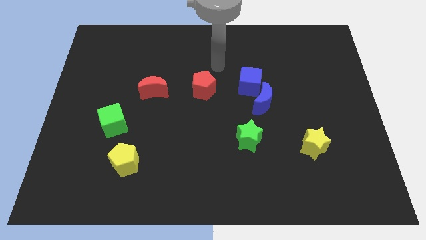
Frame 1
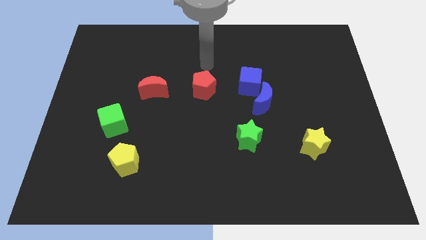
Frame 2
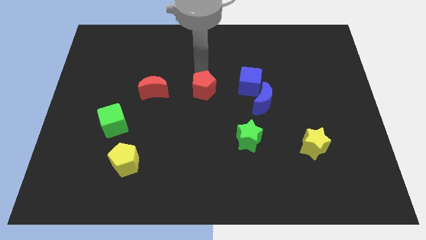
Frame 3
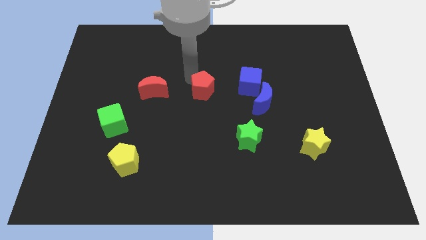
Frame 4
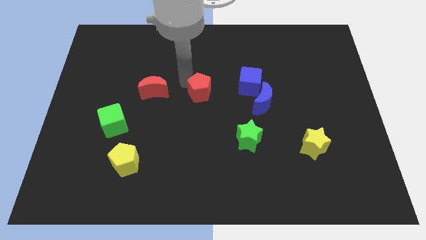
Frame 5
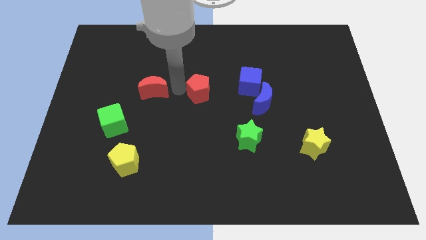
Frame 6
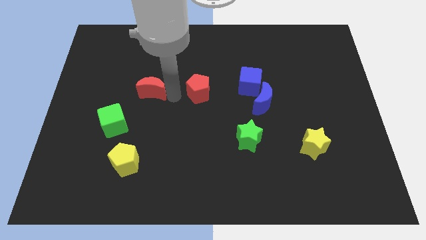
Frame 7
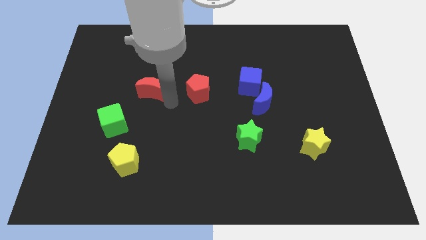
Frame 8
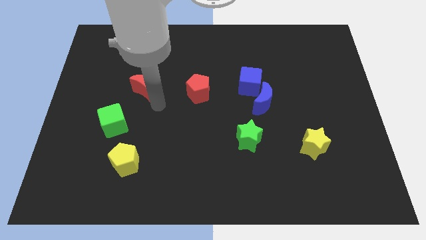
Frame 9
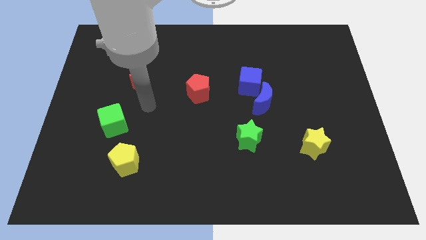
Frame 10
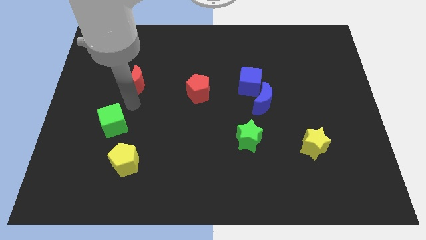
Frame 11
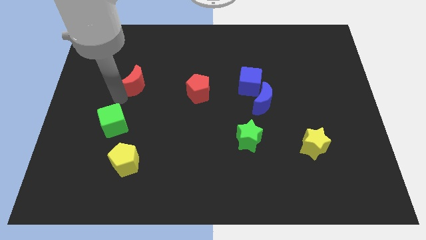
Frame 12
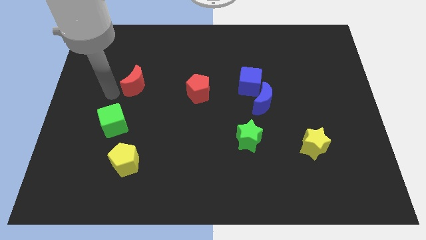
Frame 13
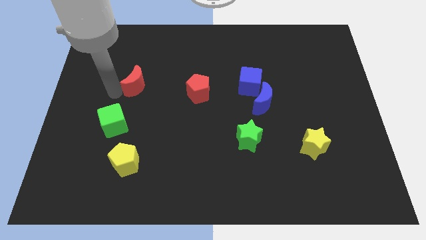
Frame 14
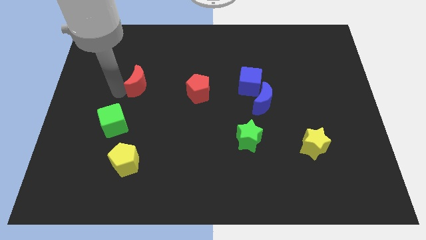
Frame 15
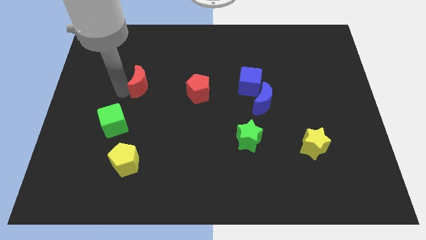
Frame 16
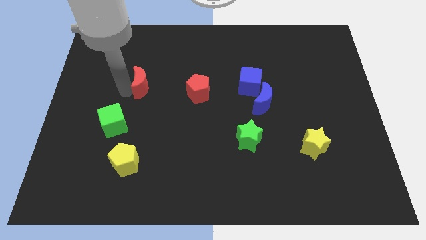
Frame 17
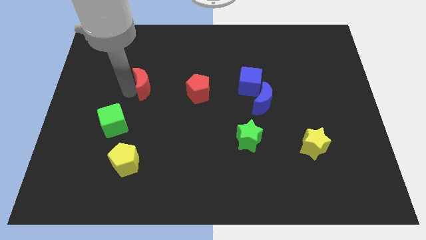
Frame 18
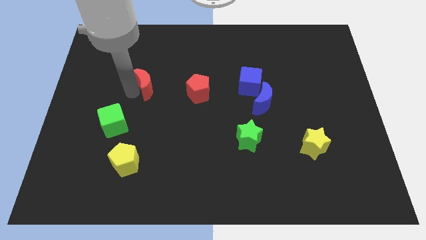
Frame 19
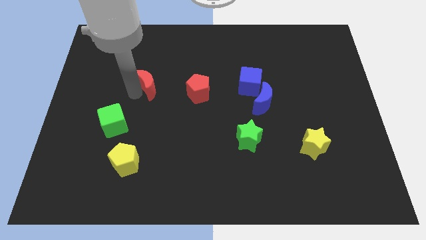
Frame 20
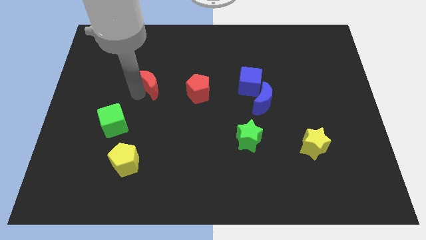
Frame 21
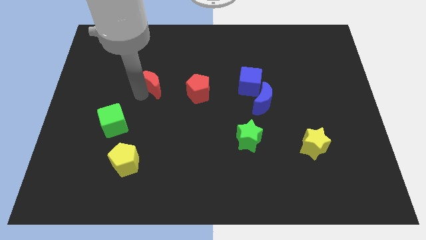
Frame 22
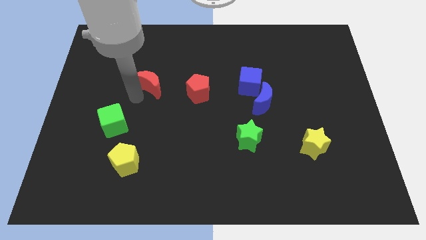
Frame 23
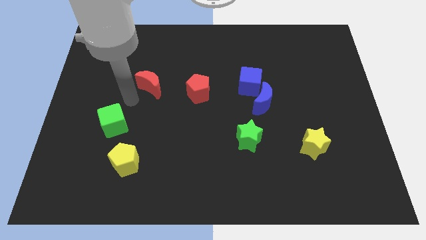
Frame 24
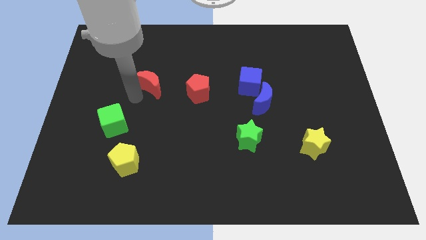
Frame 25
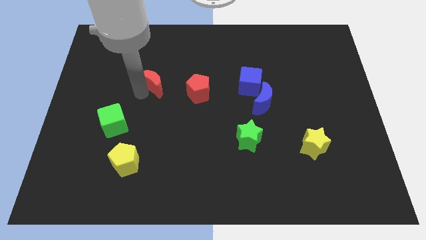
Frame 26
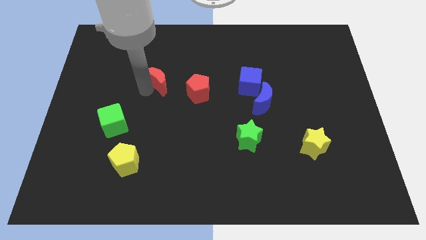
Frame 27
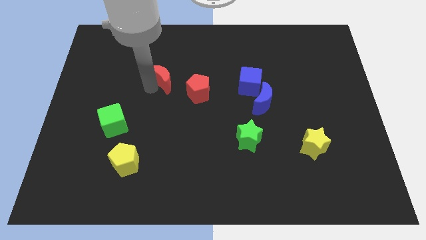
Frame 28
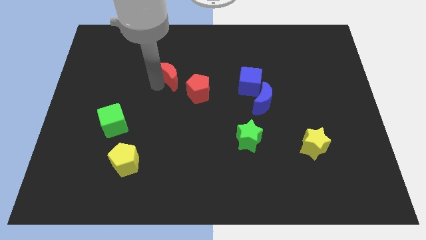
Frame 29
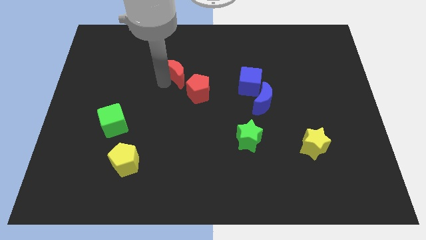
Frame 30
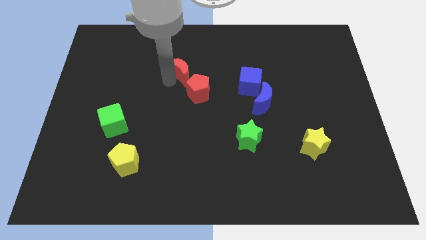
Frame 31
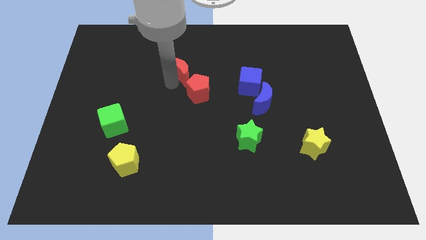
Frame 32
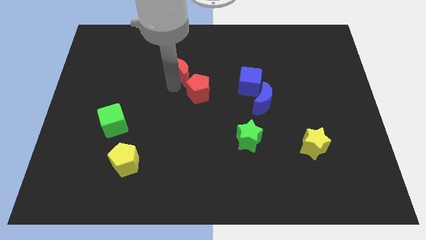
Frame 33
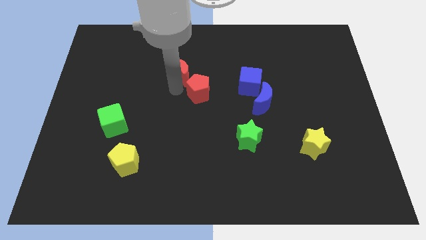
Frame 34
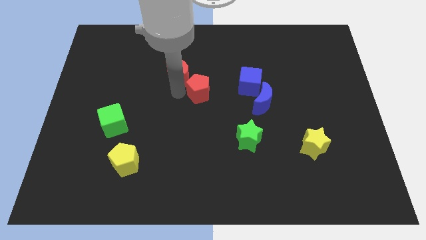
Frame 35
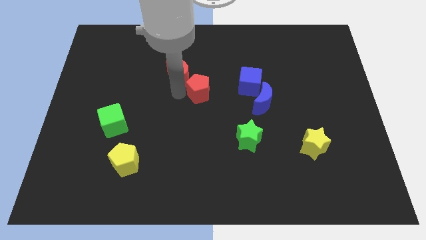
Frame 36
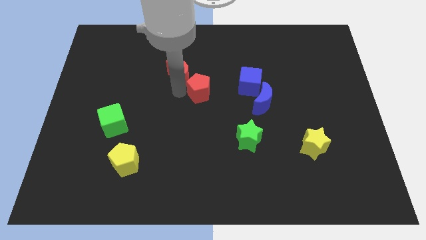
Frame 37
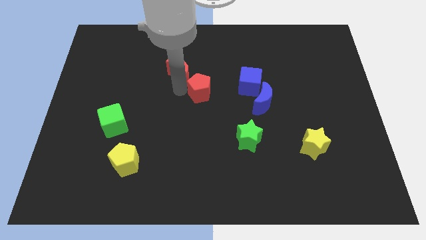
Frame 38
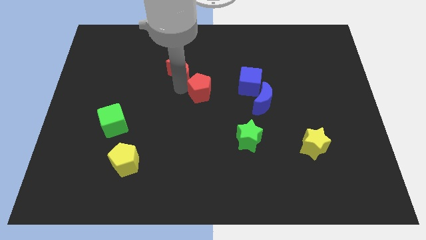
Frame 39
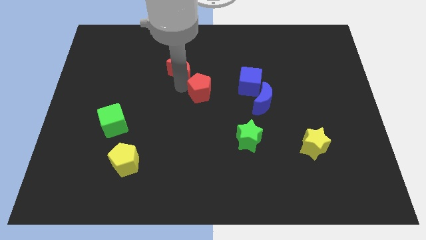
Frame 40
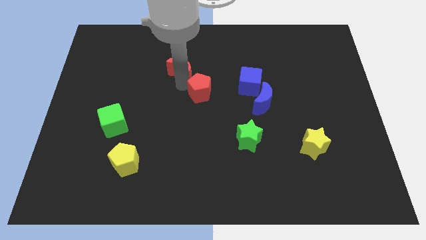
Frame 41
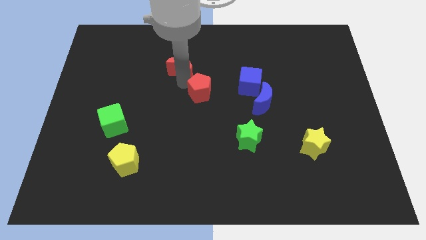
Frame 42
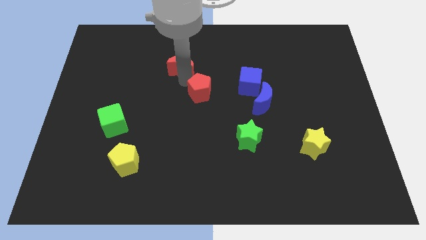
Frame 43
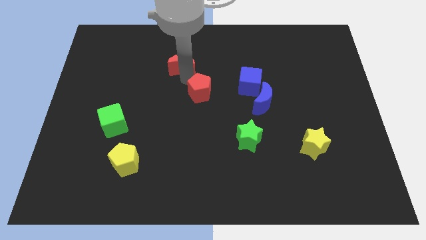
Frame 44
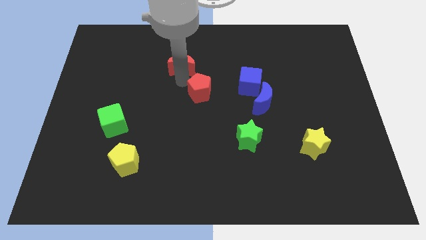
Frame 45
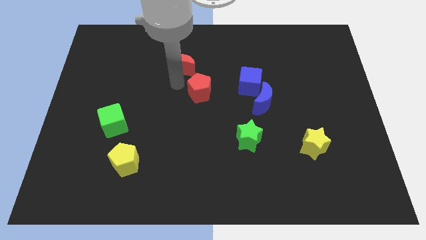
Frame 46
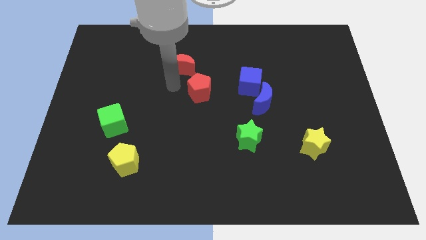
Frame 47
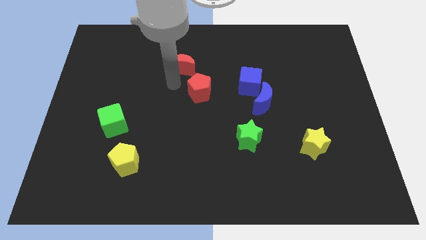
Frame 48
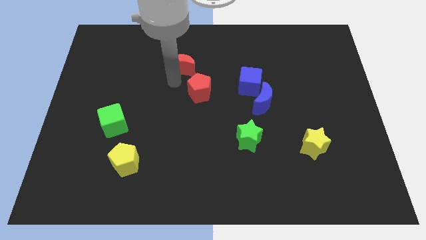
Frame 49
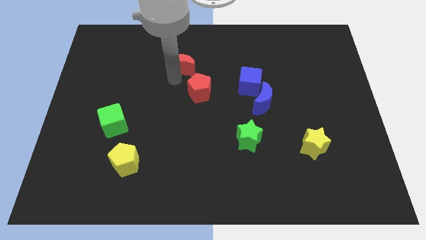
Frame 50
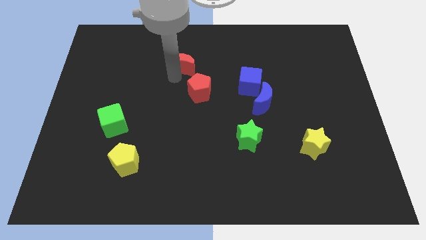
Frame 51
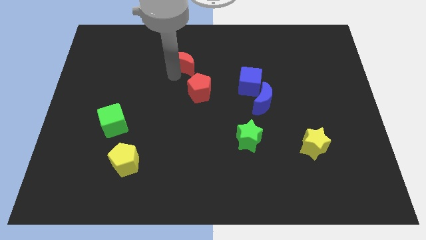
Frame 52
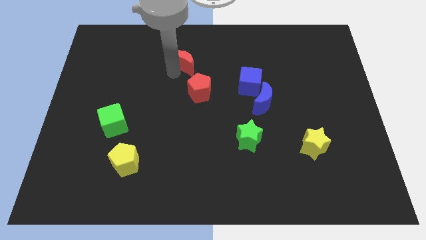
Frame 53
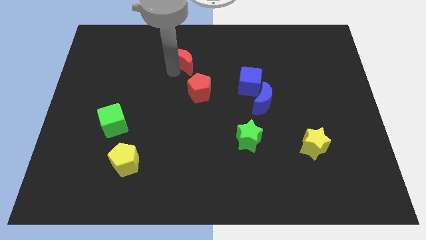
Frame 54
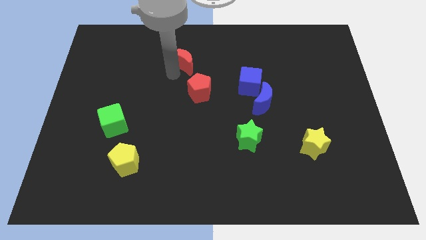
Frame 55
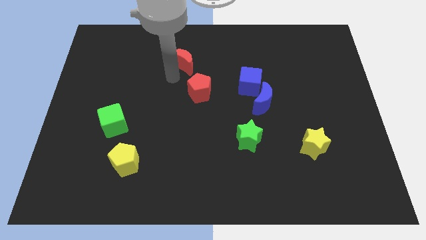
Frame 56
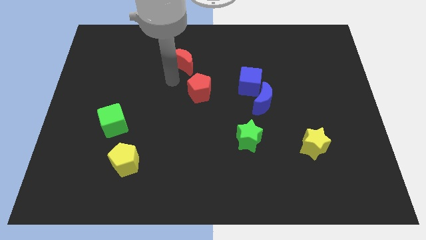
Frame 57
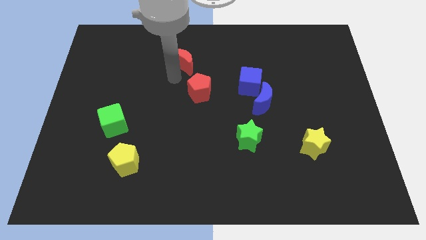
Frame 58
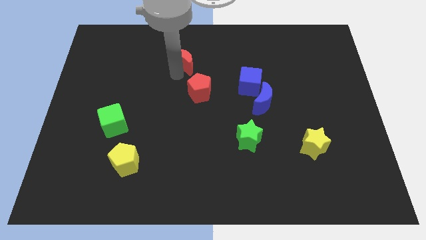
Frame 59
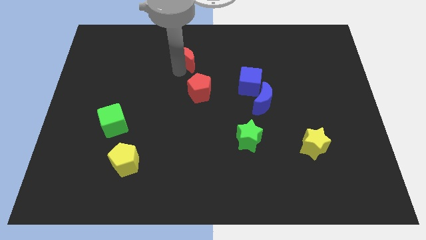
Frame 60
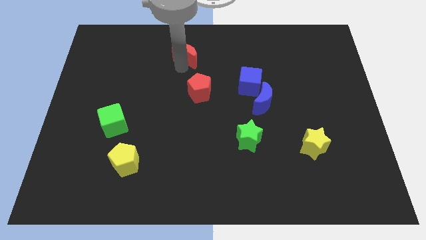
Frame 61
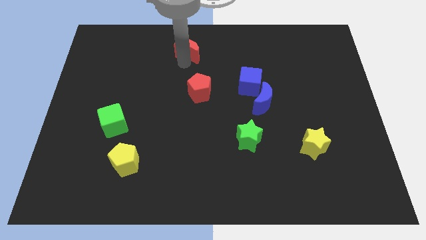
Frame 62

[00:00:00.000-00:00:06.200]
put the red moon to the top side

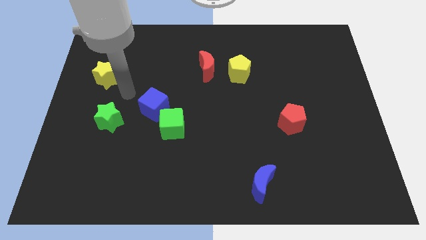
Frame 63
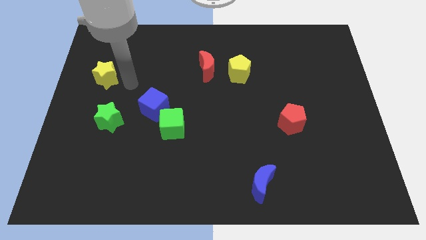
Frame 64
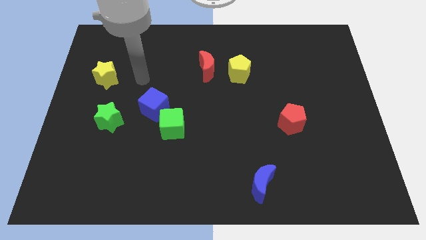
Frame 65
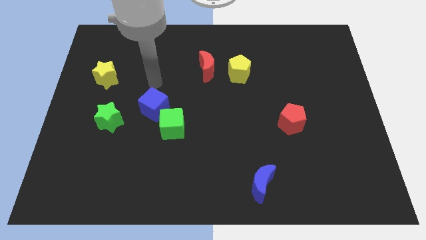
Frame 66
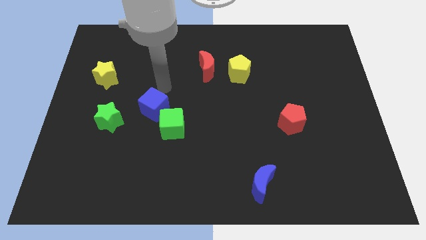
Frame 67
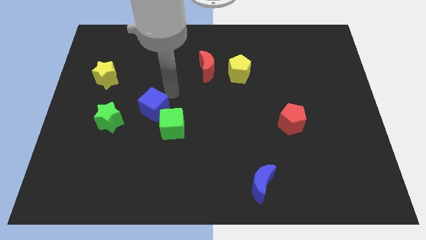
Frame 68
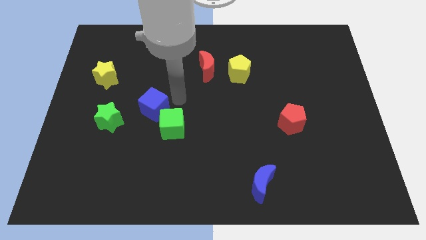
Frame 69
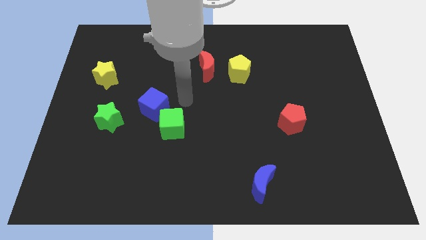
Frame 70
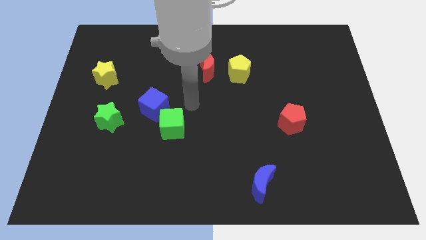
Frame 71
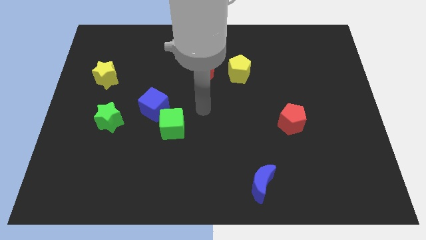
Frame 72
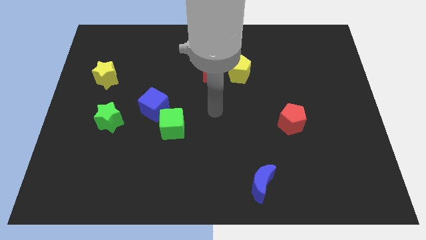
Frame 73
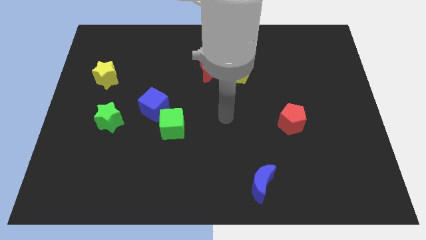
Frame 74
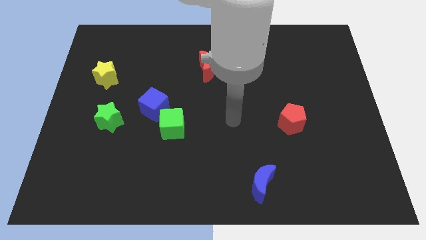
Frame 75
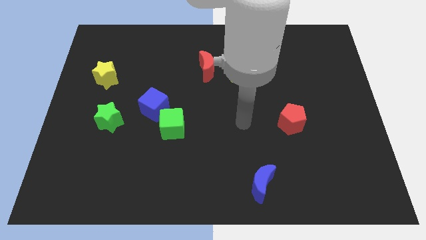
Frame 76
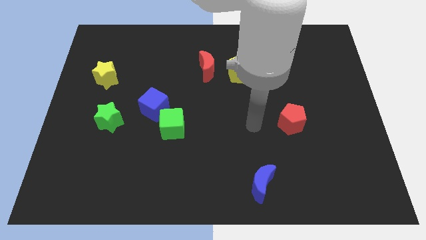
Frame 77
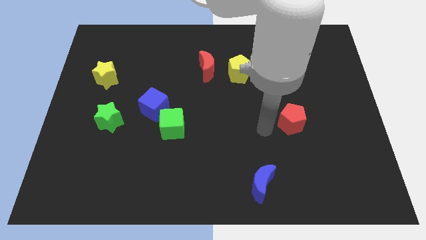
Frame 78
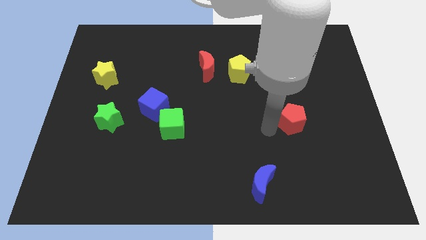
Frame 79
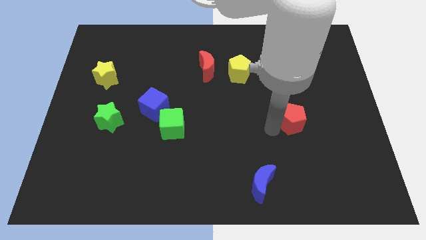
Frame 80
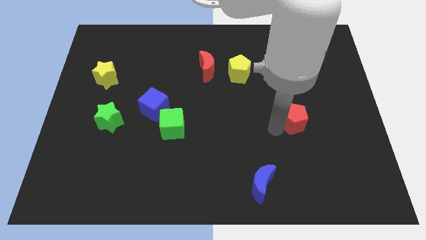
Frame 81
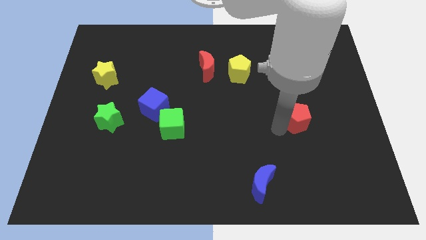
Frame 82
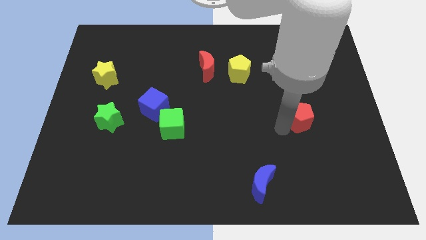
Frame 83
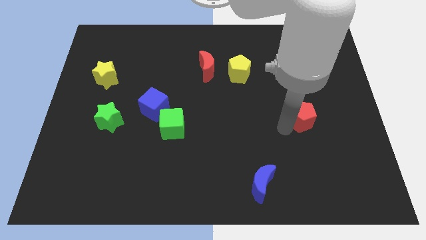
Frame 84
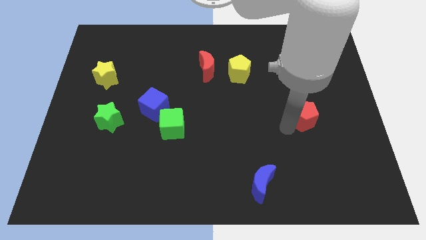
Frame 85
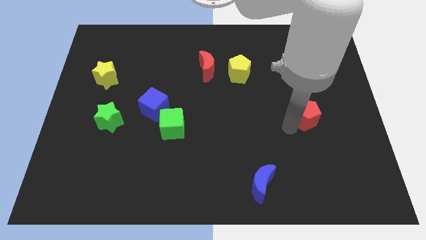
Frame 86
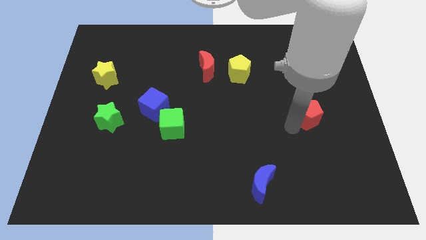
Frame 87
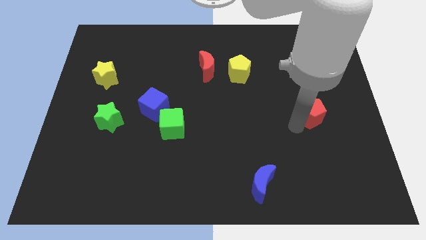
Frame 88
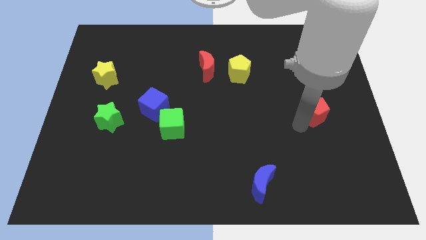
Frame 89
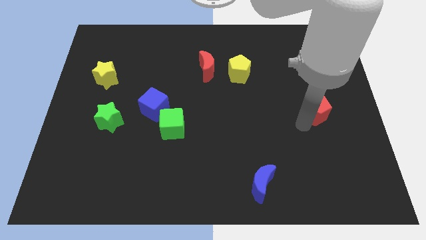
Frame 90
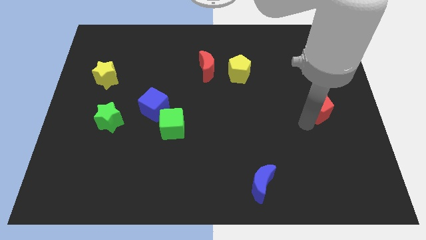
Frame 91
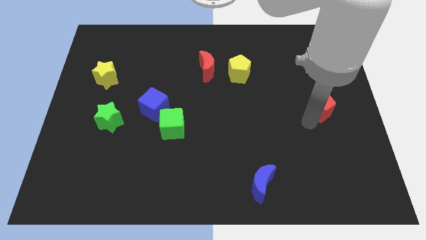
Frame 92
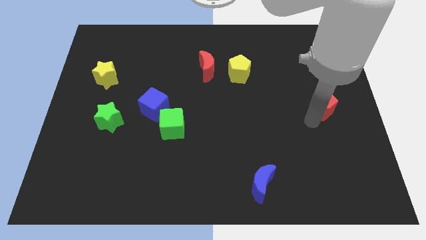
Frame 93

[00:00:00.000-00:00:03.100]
put the red pentagon to the right side
